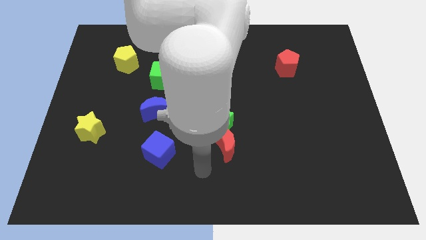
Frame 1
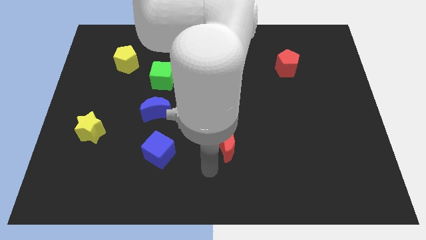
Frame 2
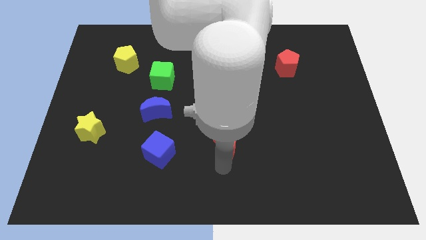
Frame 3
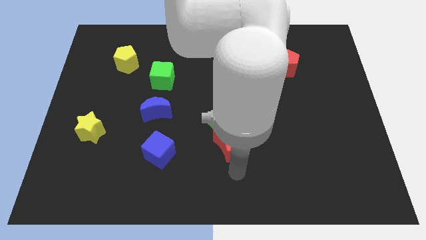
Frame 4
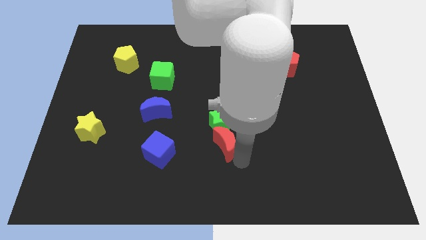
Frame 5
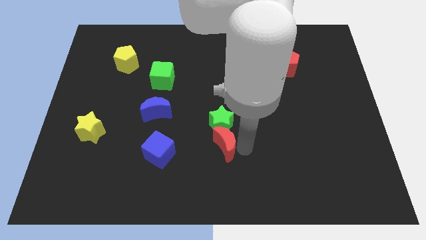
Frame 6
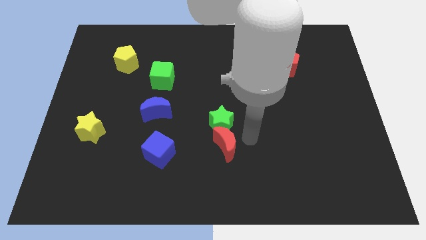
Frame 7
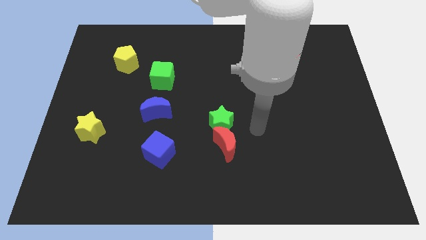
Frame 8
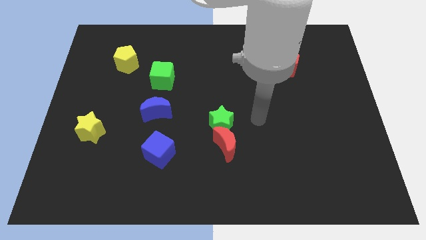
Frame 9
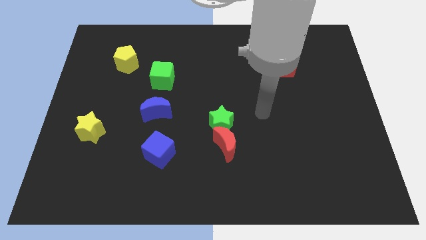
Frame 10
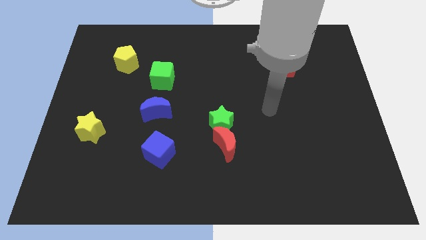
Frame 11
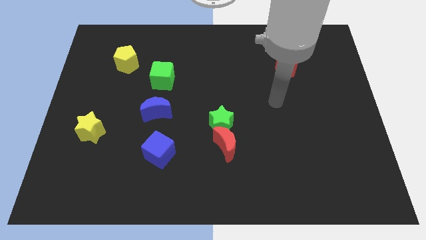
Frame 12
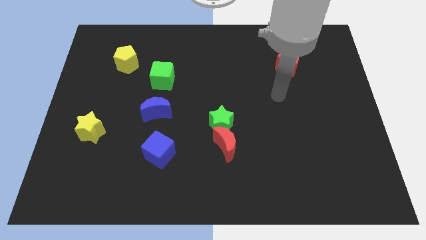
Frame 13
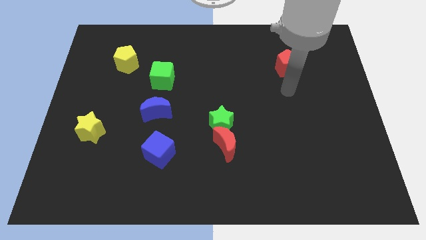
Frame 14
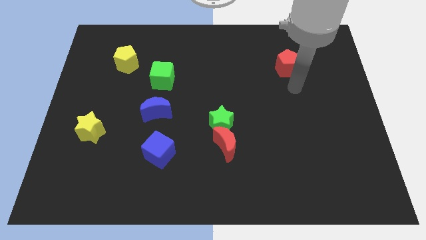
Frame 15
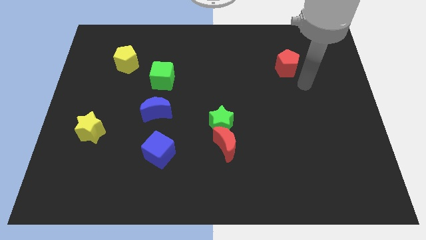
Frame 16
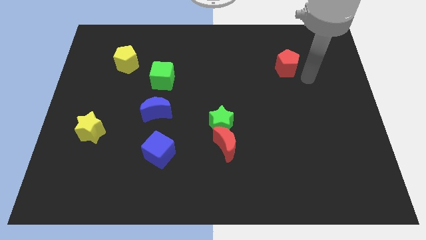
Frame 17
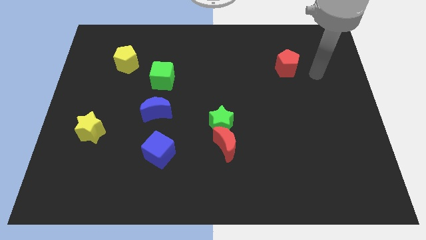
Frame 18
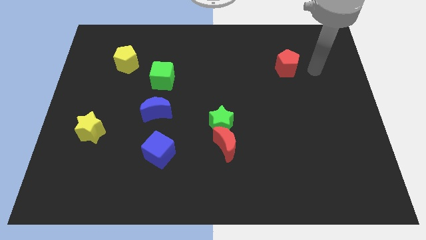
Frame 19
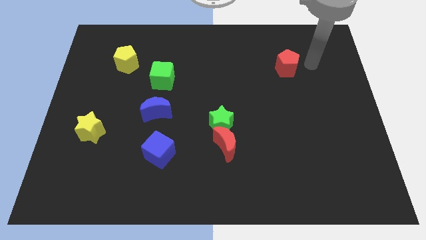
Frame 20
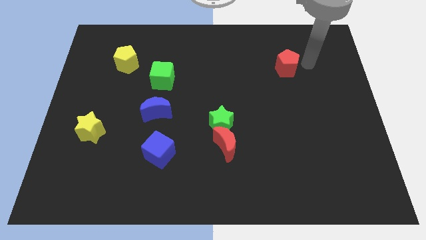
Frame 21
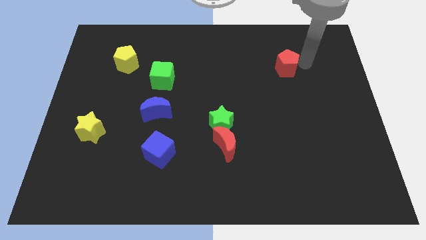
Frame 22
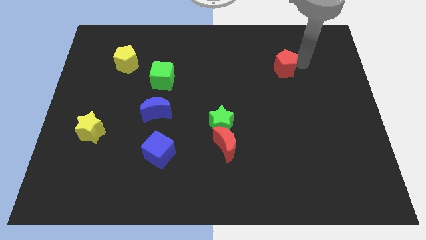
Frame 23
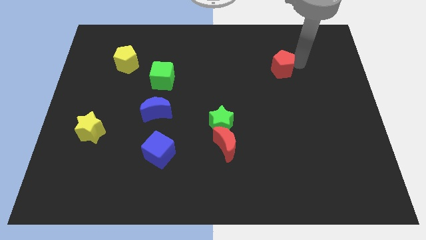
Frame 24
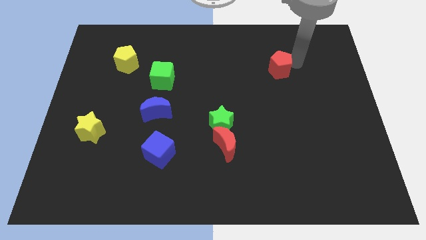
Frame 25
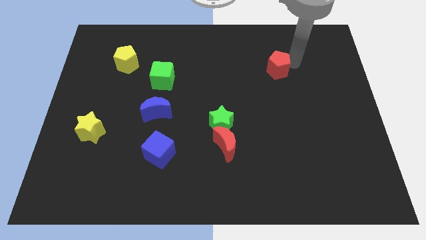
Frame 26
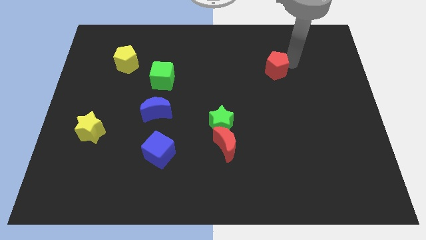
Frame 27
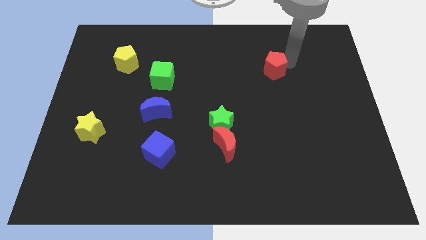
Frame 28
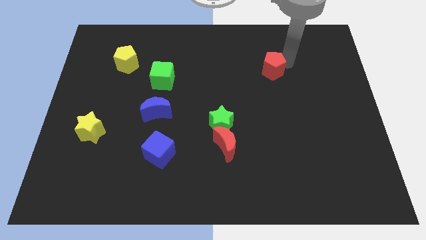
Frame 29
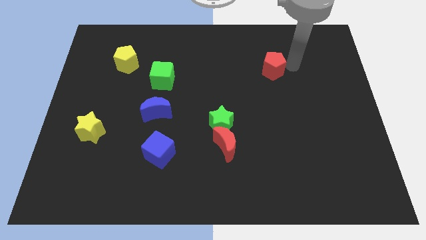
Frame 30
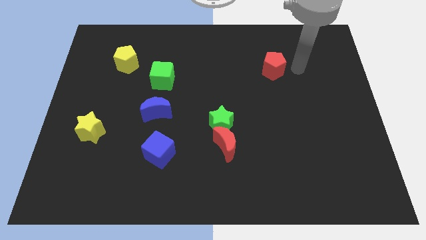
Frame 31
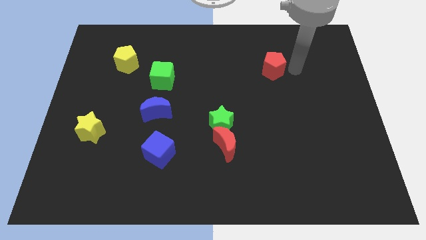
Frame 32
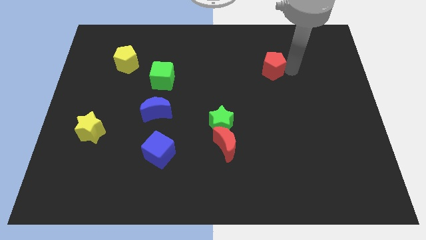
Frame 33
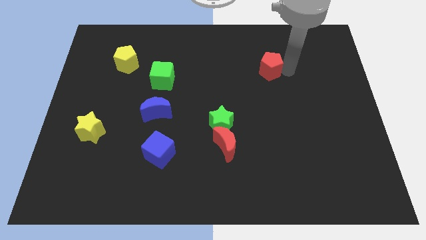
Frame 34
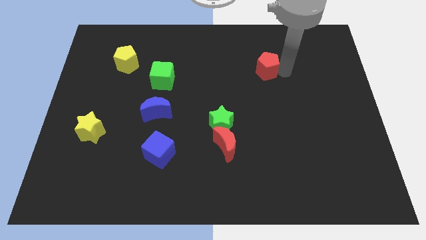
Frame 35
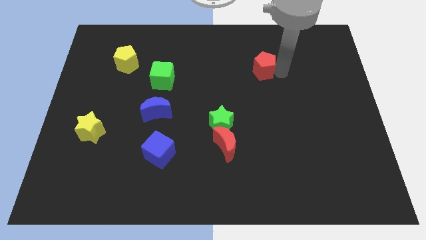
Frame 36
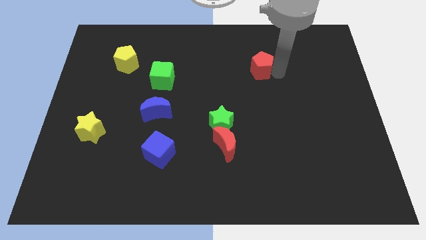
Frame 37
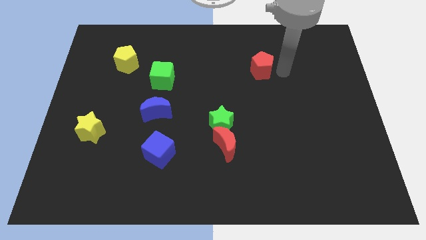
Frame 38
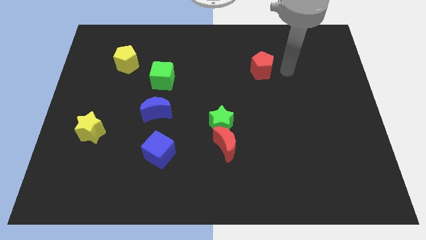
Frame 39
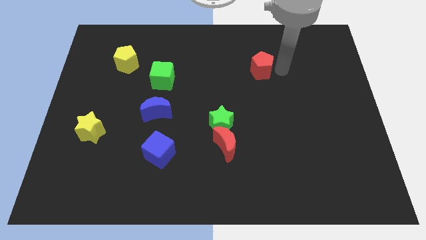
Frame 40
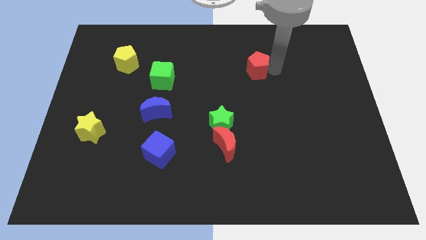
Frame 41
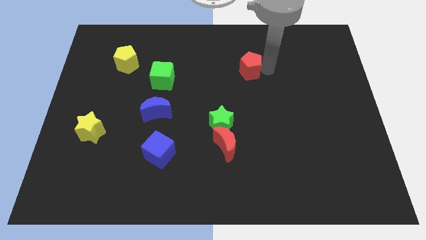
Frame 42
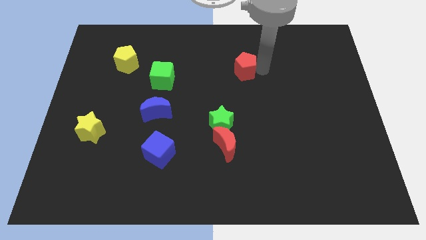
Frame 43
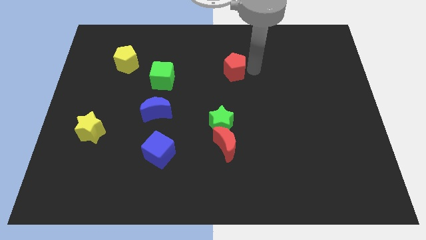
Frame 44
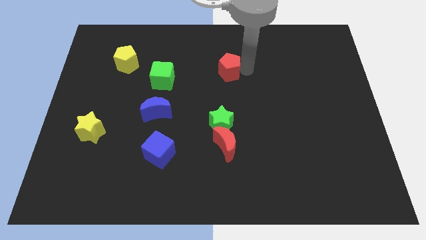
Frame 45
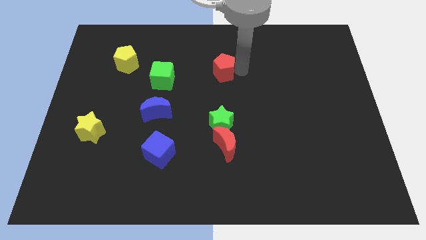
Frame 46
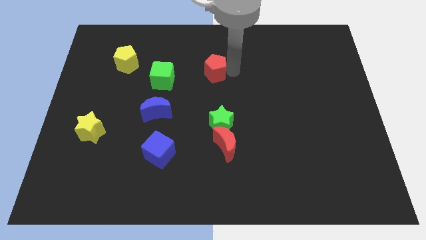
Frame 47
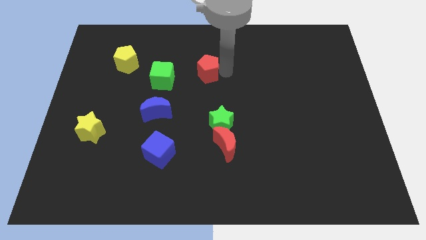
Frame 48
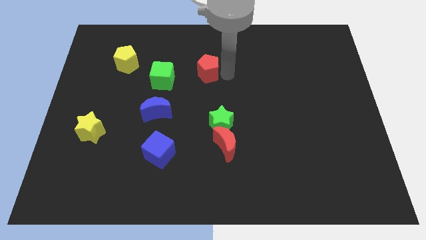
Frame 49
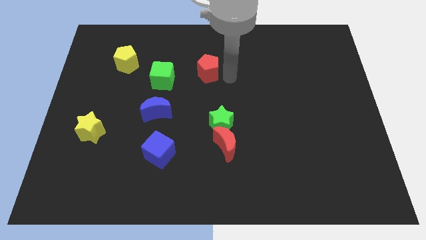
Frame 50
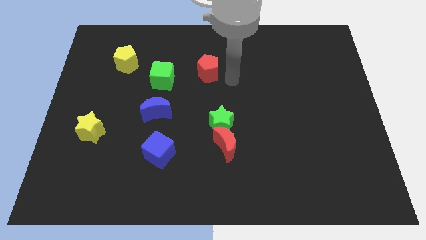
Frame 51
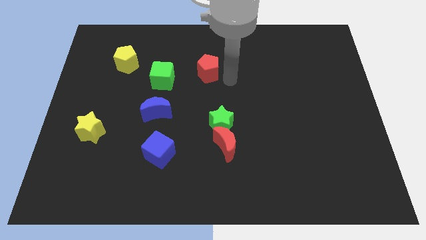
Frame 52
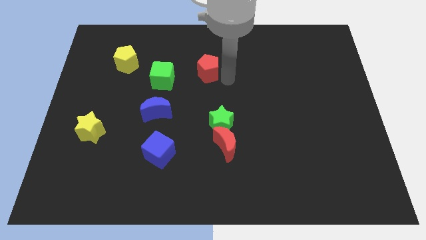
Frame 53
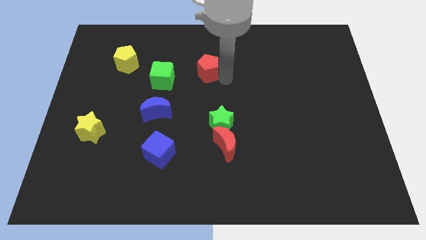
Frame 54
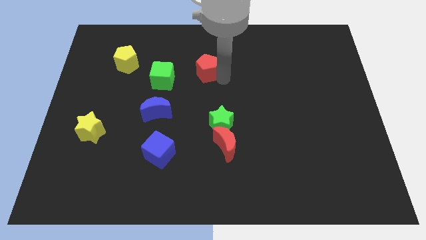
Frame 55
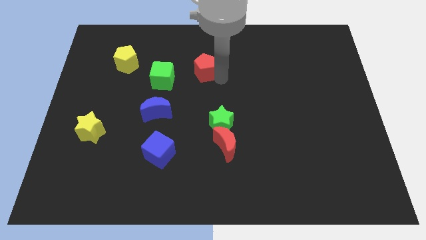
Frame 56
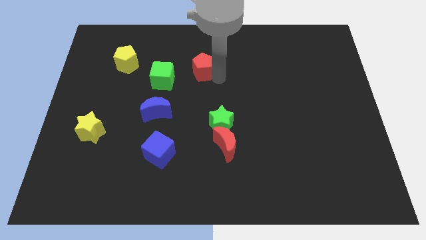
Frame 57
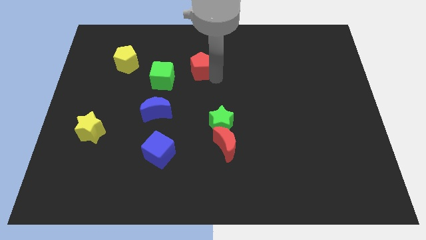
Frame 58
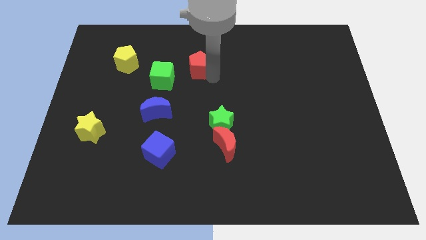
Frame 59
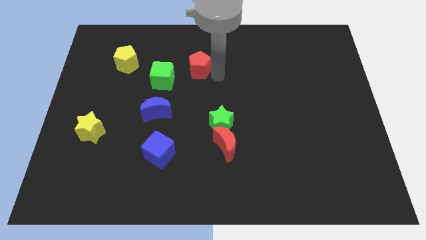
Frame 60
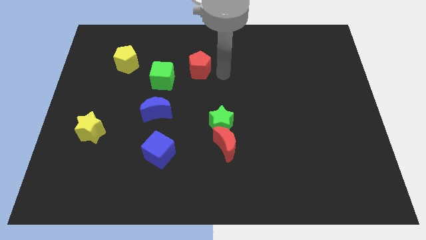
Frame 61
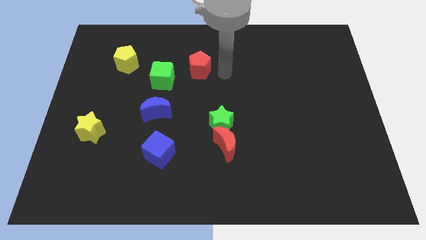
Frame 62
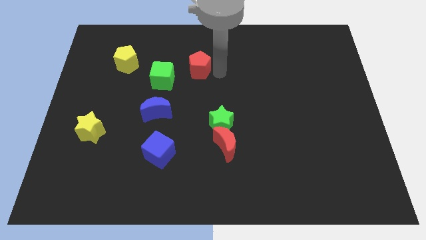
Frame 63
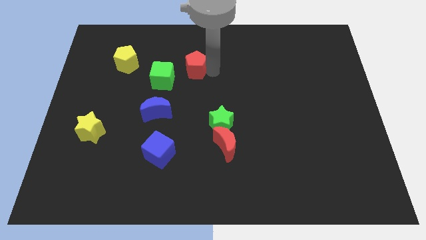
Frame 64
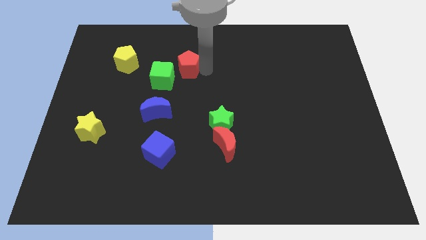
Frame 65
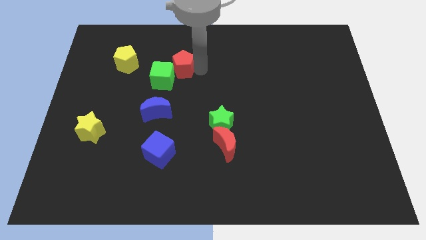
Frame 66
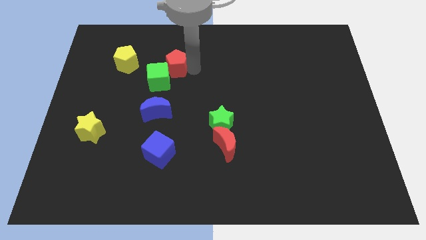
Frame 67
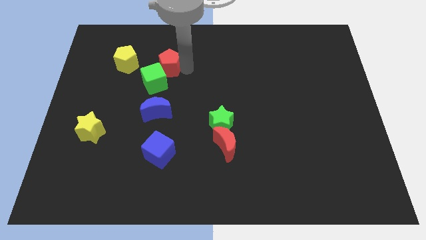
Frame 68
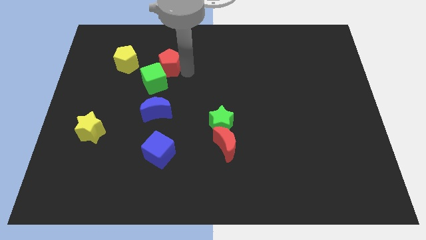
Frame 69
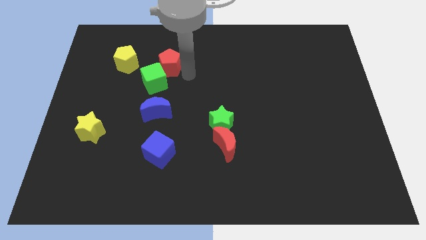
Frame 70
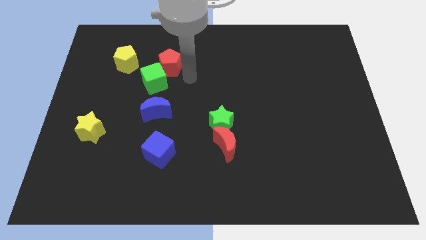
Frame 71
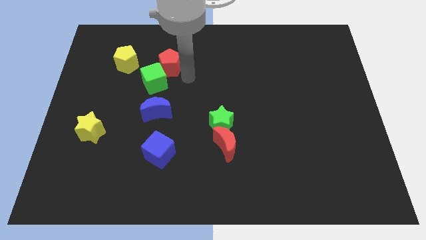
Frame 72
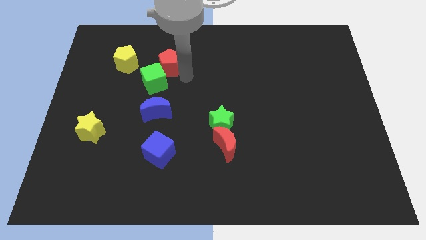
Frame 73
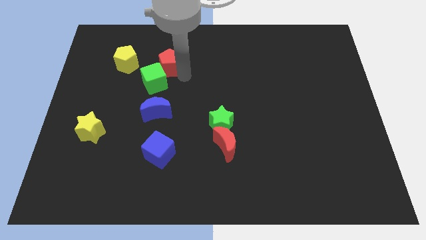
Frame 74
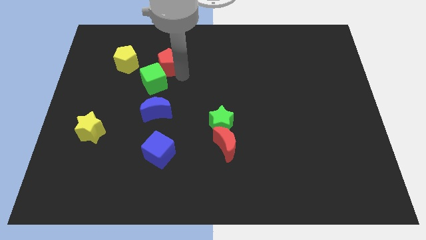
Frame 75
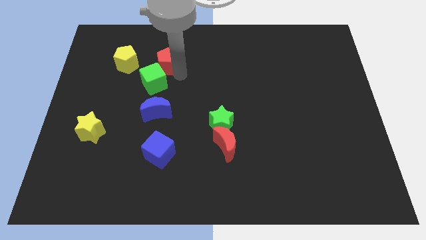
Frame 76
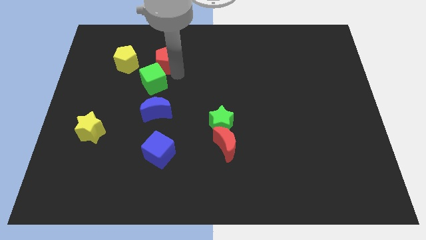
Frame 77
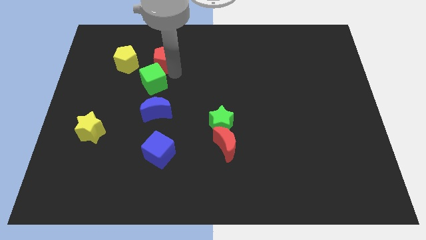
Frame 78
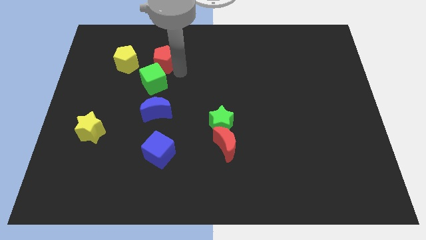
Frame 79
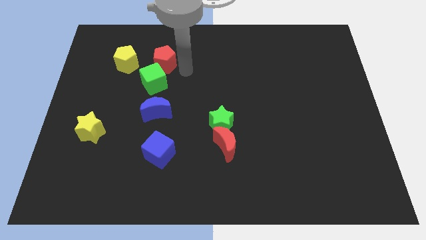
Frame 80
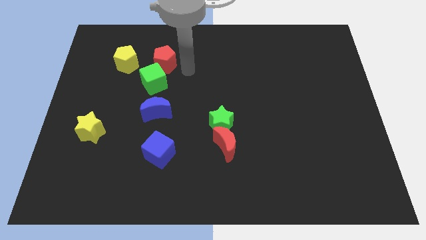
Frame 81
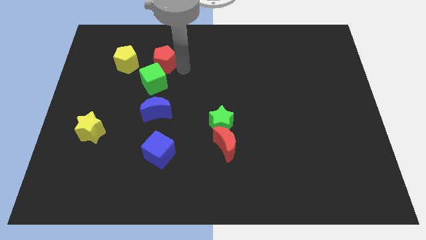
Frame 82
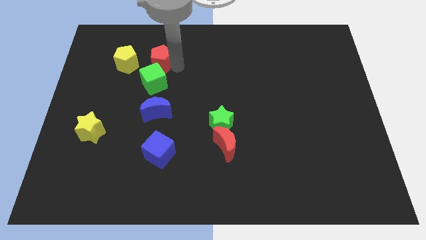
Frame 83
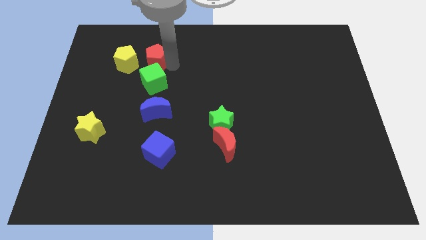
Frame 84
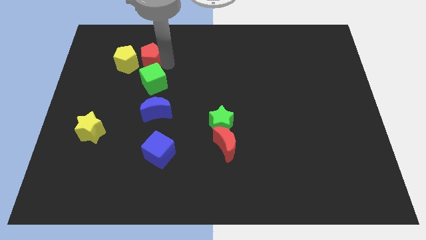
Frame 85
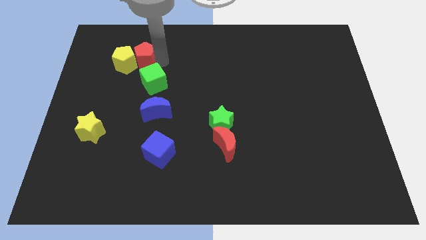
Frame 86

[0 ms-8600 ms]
push the red pentagon to the yellow pentagon
